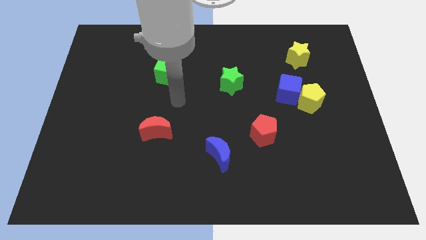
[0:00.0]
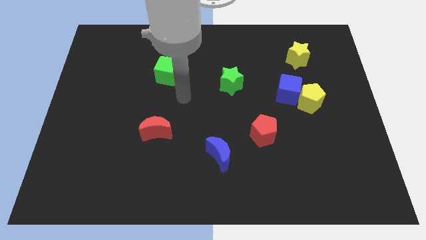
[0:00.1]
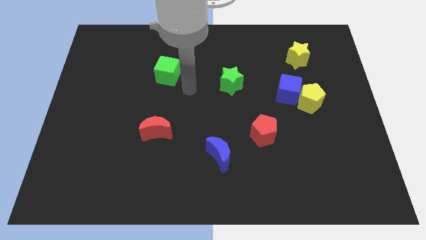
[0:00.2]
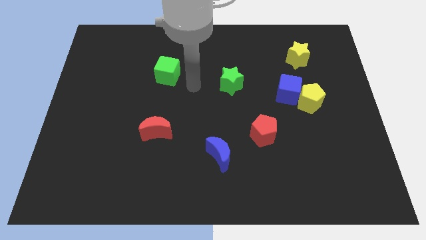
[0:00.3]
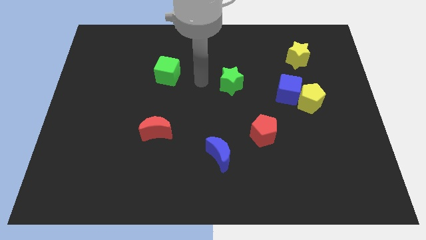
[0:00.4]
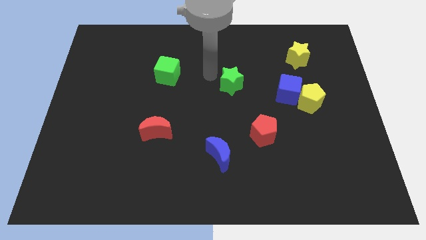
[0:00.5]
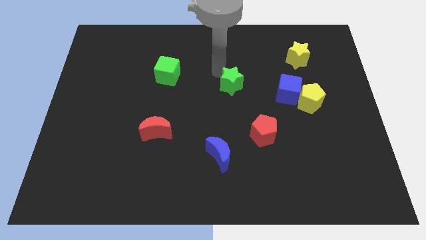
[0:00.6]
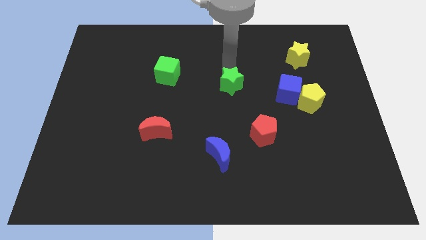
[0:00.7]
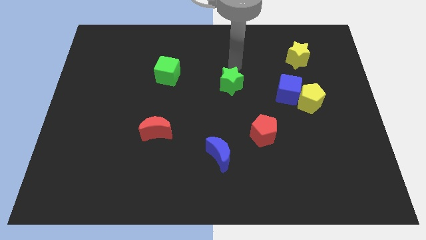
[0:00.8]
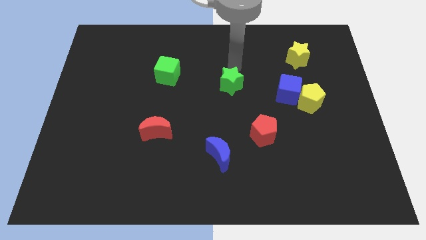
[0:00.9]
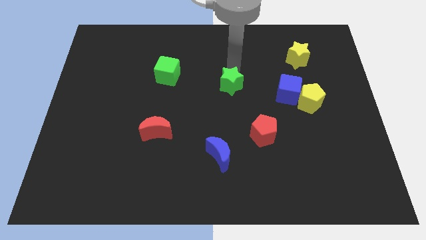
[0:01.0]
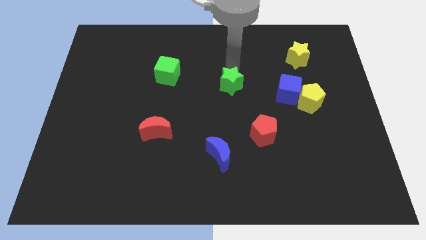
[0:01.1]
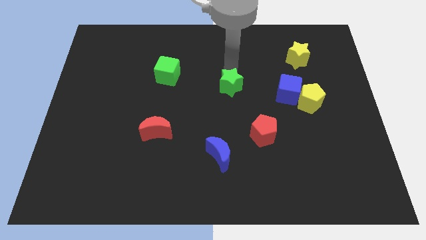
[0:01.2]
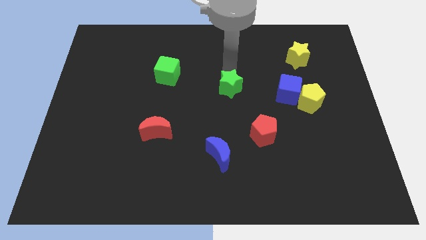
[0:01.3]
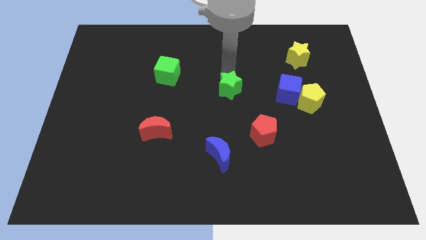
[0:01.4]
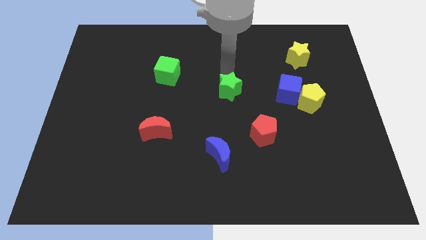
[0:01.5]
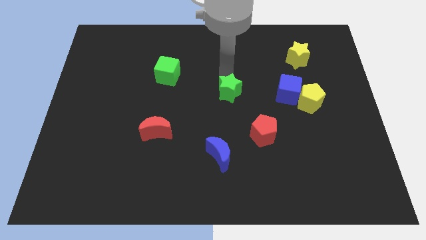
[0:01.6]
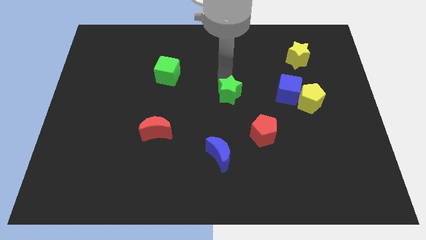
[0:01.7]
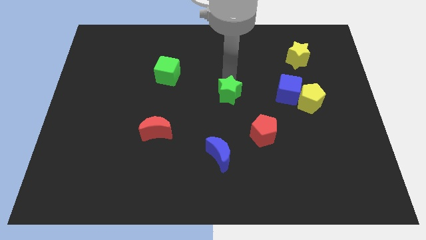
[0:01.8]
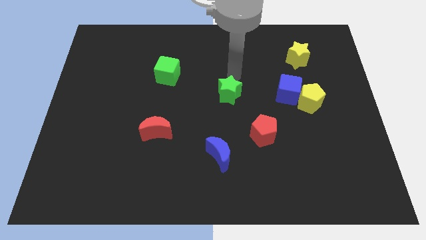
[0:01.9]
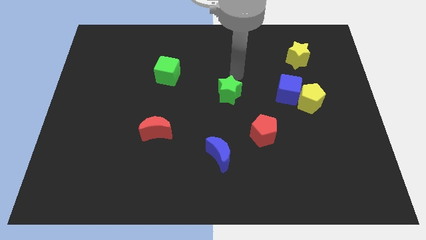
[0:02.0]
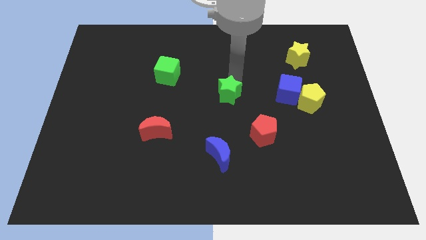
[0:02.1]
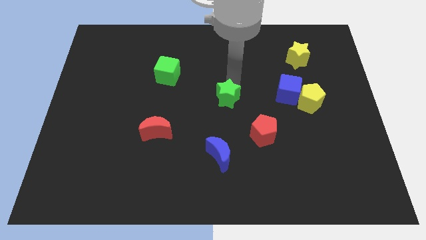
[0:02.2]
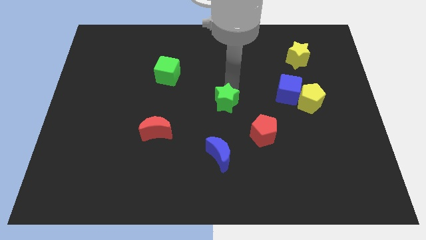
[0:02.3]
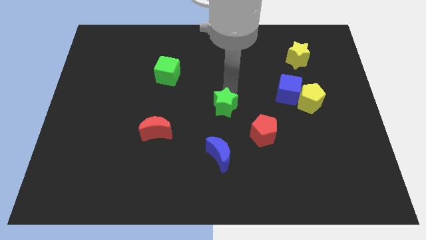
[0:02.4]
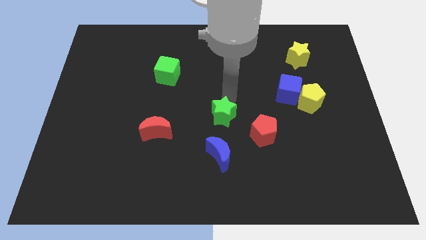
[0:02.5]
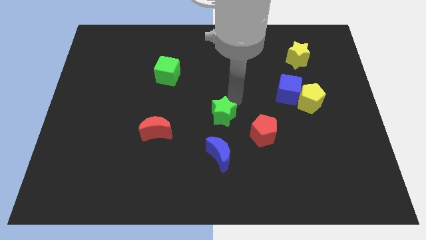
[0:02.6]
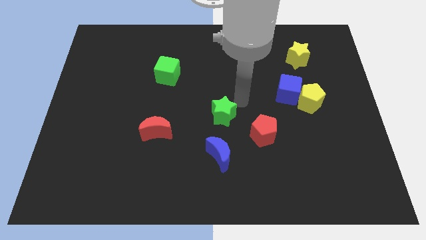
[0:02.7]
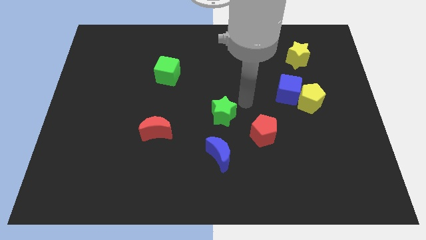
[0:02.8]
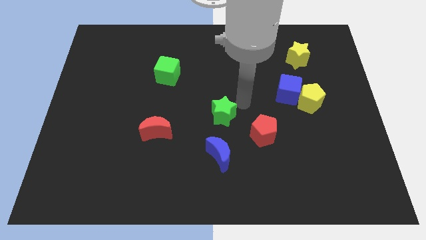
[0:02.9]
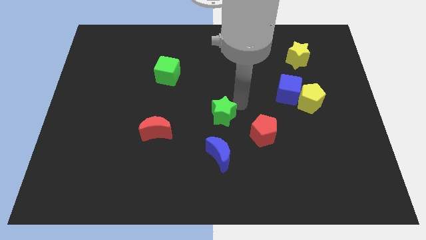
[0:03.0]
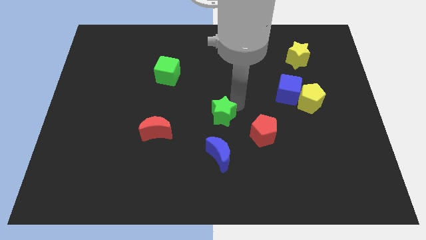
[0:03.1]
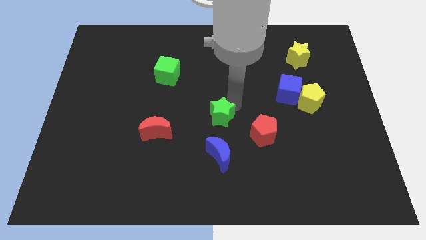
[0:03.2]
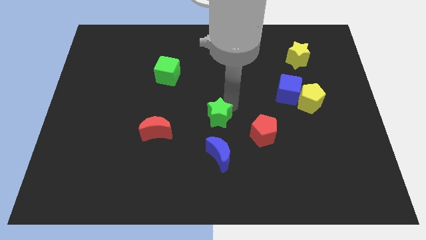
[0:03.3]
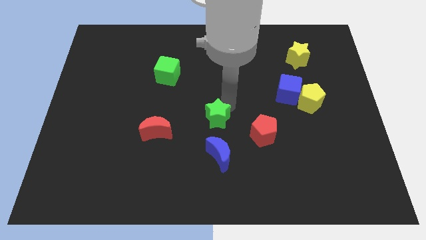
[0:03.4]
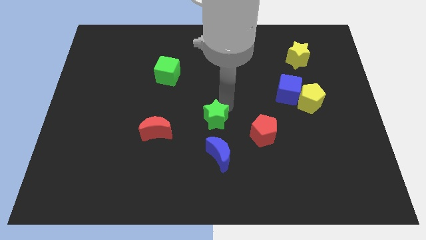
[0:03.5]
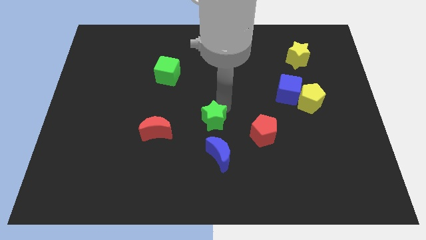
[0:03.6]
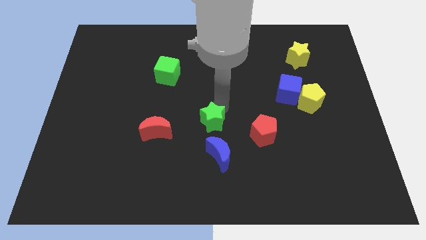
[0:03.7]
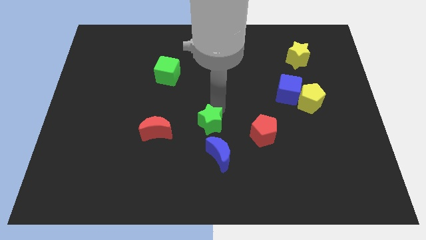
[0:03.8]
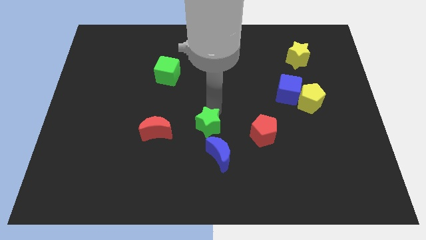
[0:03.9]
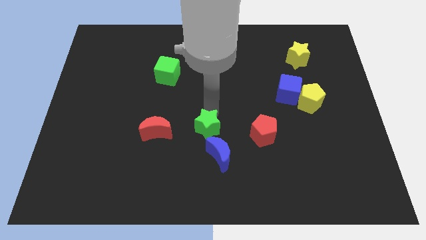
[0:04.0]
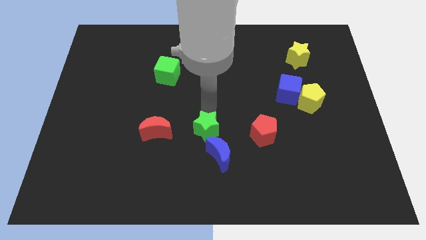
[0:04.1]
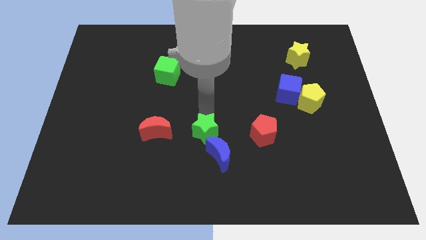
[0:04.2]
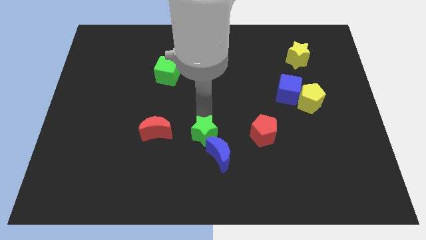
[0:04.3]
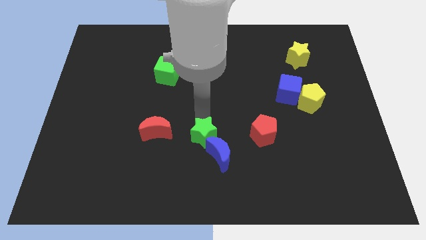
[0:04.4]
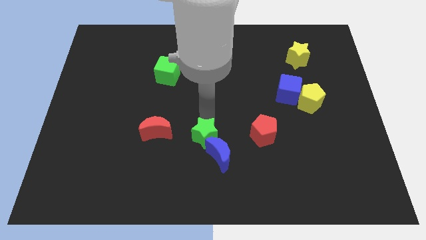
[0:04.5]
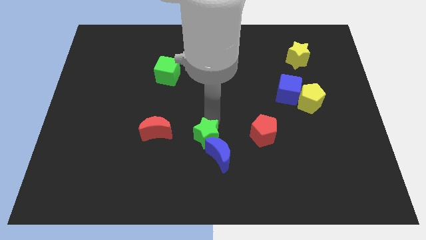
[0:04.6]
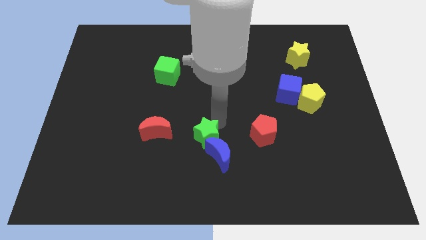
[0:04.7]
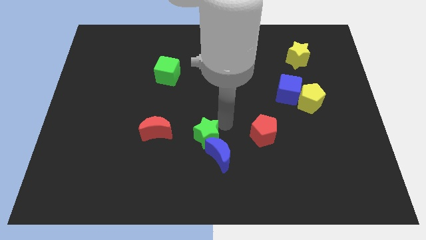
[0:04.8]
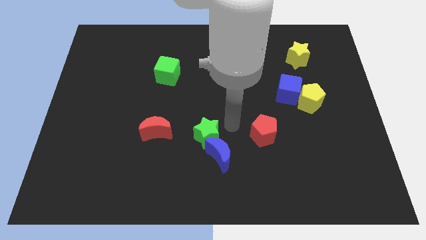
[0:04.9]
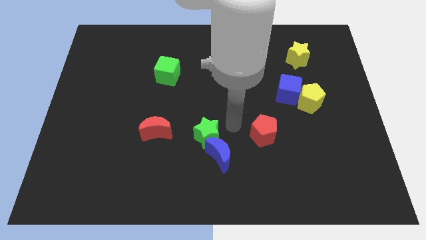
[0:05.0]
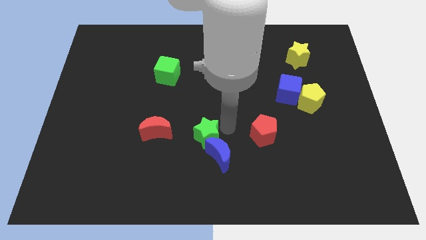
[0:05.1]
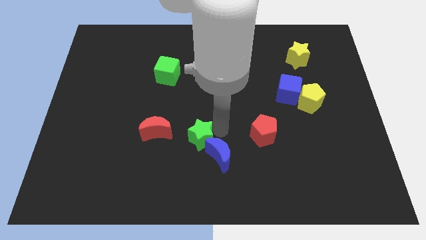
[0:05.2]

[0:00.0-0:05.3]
move the green star left of the blue moon

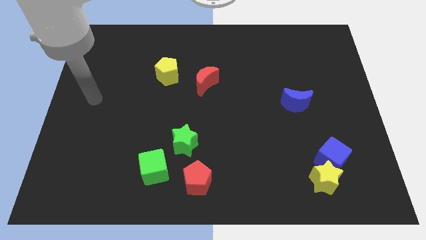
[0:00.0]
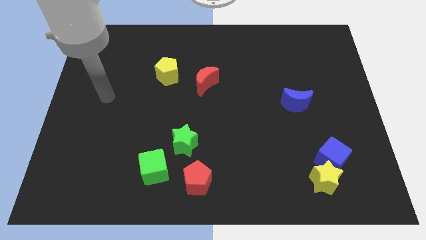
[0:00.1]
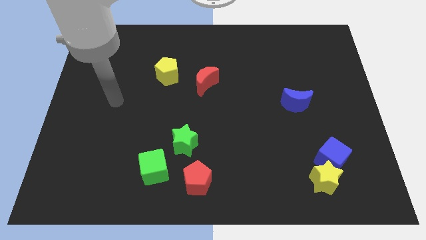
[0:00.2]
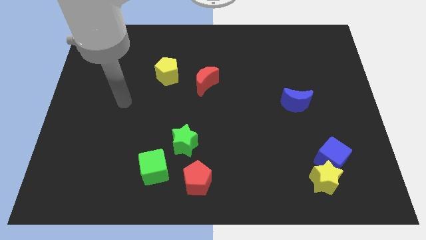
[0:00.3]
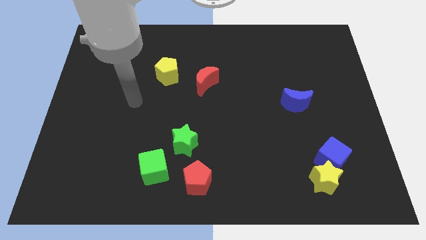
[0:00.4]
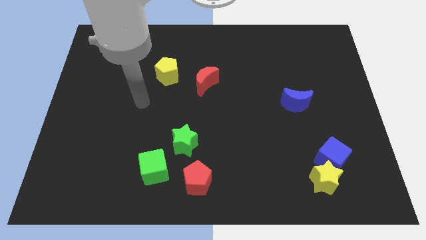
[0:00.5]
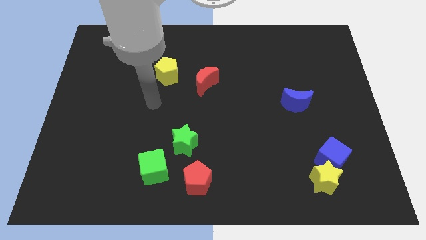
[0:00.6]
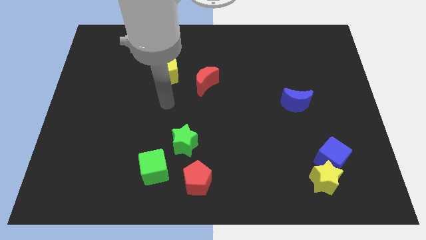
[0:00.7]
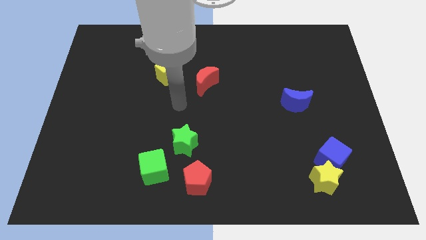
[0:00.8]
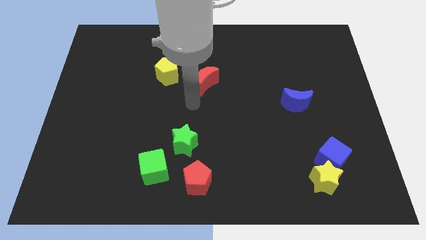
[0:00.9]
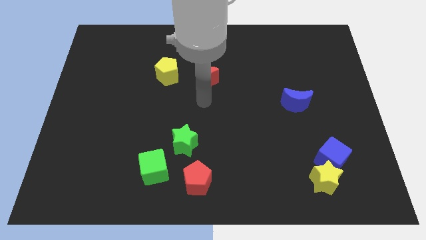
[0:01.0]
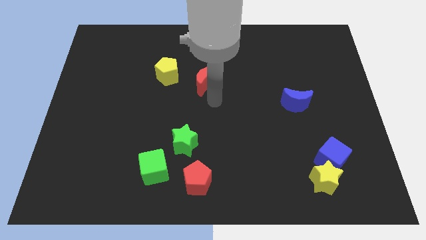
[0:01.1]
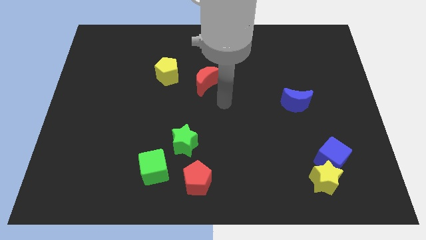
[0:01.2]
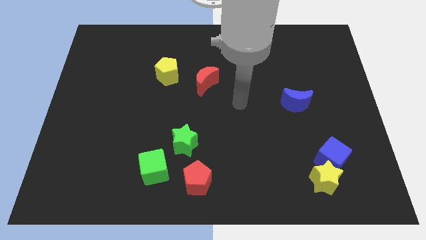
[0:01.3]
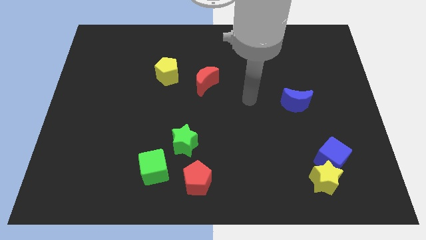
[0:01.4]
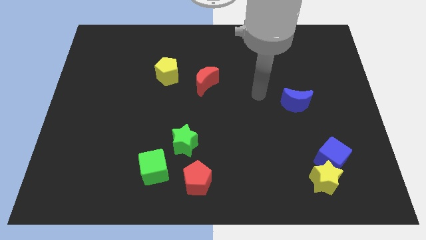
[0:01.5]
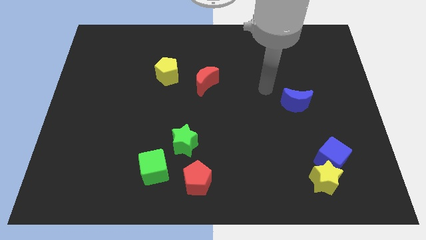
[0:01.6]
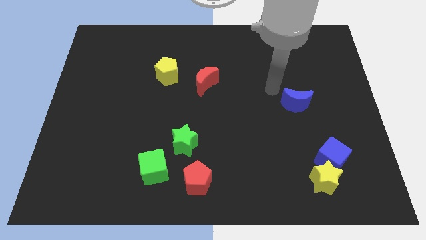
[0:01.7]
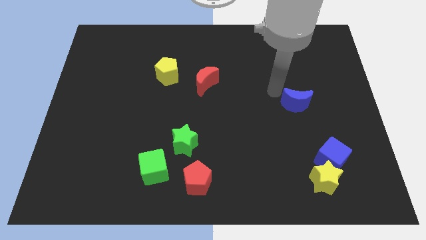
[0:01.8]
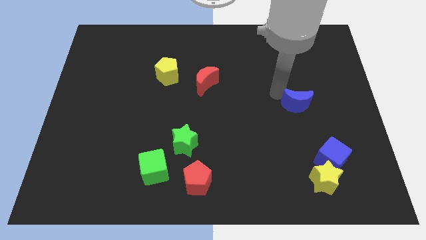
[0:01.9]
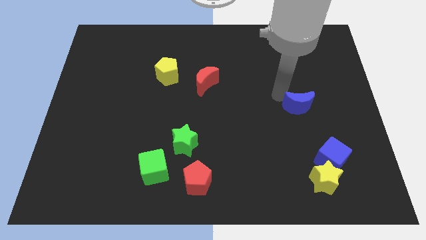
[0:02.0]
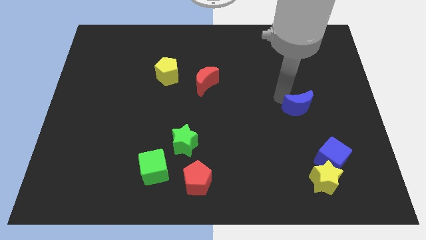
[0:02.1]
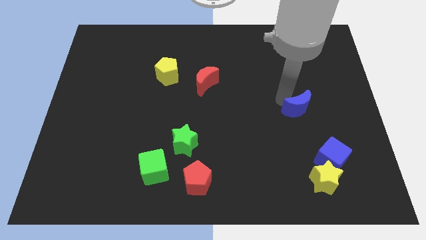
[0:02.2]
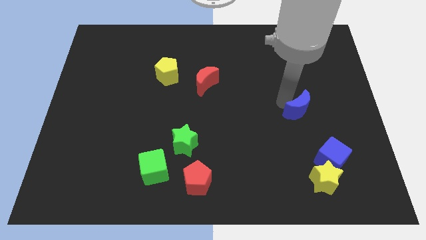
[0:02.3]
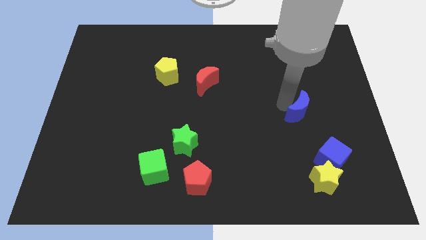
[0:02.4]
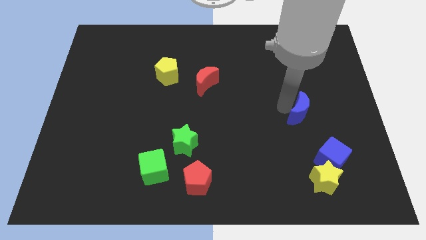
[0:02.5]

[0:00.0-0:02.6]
slide the blue moon to the top side of the blue cube

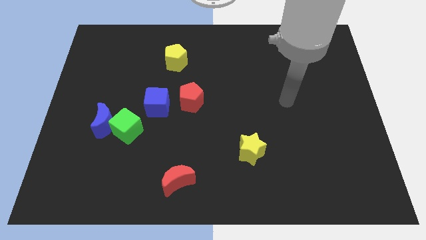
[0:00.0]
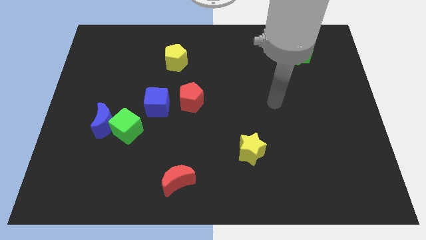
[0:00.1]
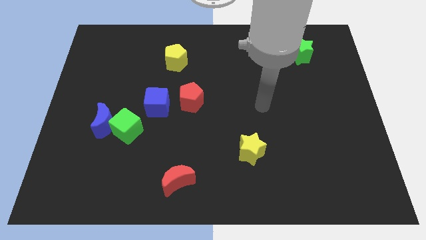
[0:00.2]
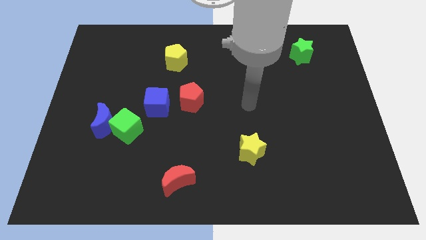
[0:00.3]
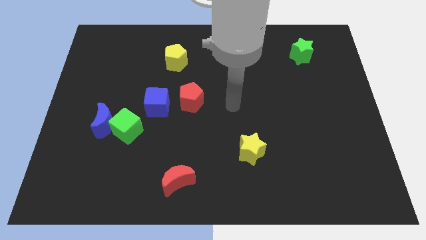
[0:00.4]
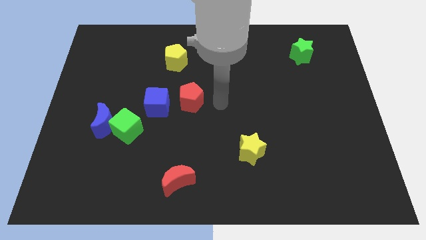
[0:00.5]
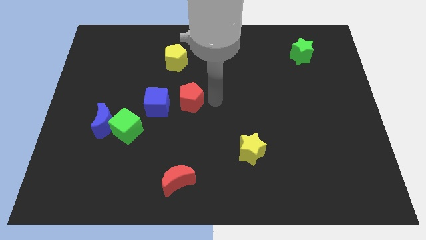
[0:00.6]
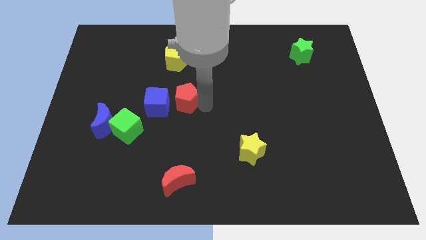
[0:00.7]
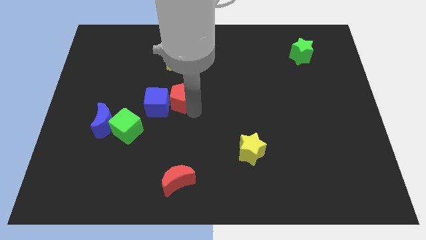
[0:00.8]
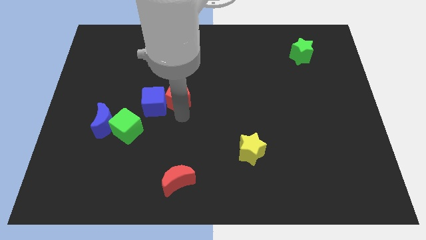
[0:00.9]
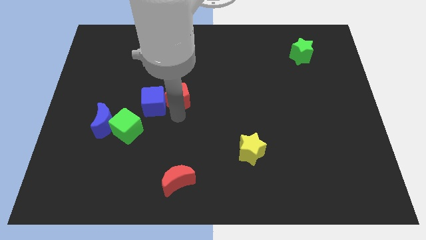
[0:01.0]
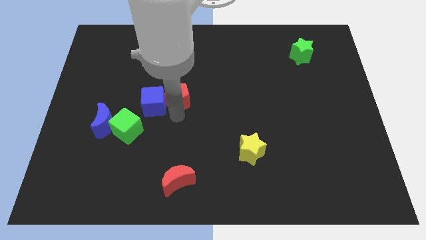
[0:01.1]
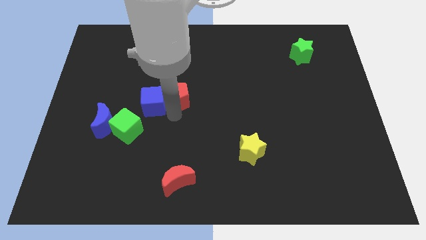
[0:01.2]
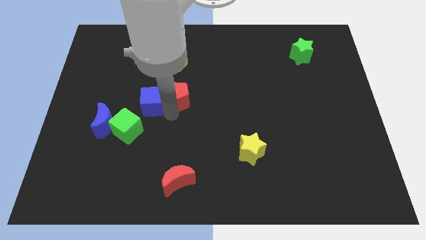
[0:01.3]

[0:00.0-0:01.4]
put the blue cube to the top side of the green cube
